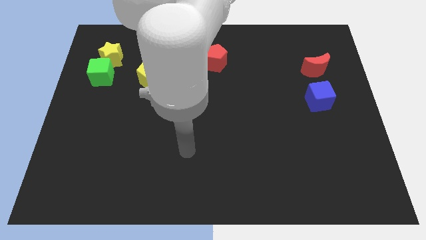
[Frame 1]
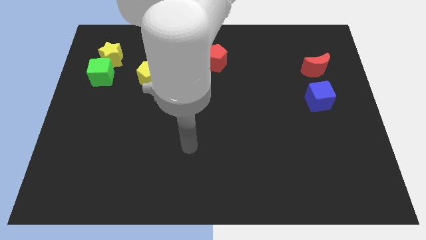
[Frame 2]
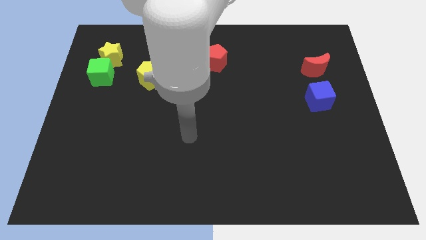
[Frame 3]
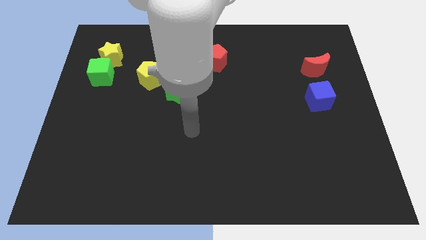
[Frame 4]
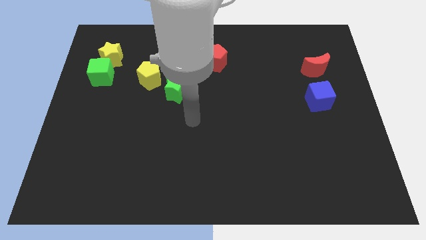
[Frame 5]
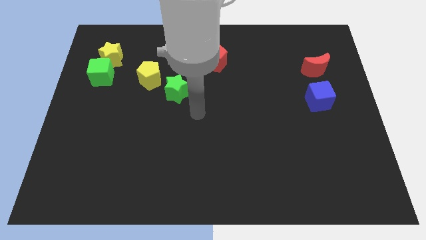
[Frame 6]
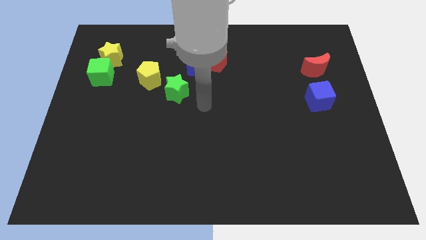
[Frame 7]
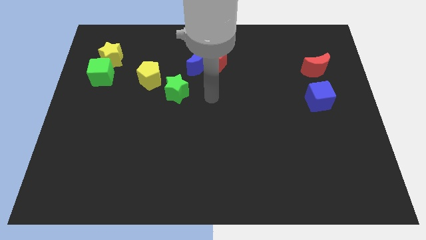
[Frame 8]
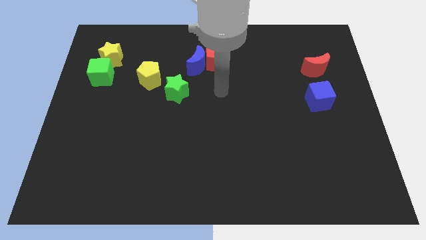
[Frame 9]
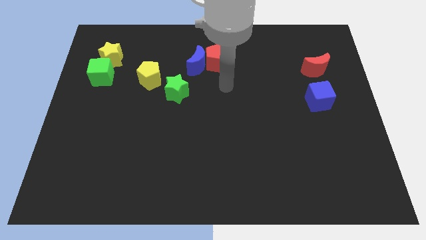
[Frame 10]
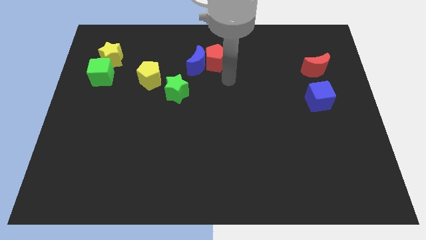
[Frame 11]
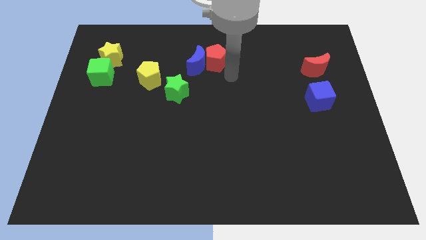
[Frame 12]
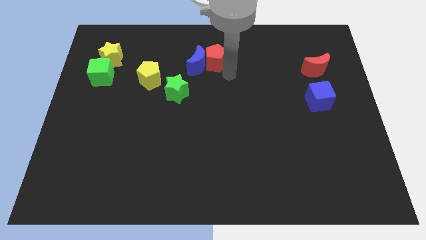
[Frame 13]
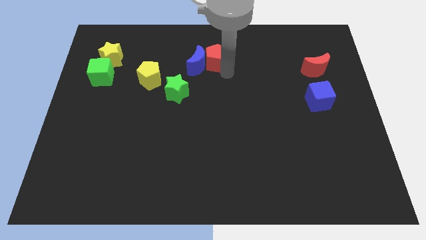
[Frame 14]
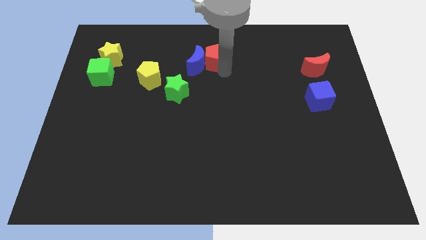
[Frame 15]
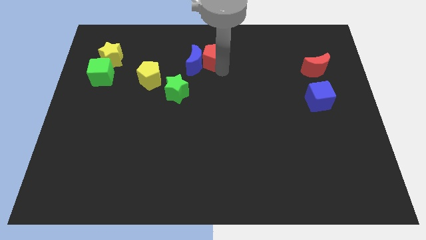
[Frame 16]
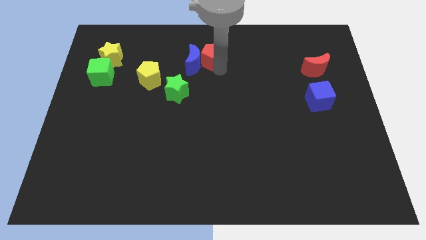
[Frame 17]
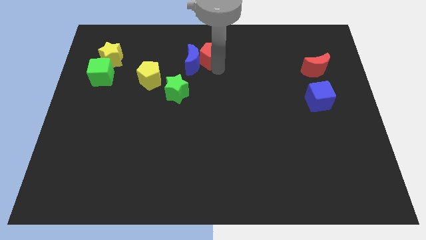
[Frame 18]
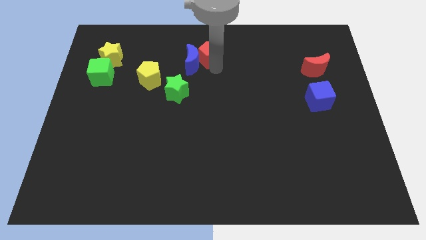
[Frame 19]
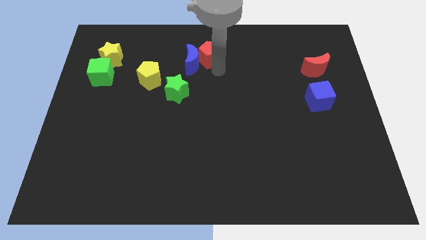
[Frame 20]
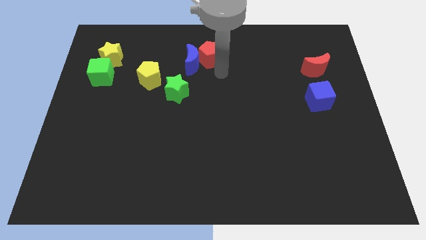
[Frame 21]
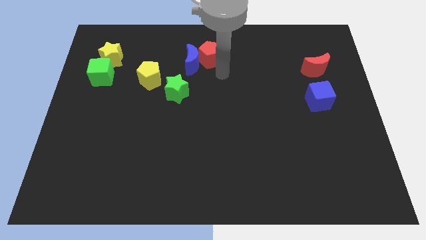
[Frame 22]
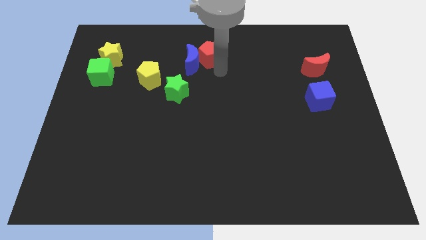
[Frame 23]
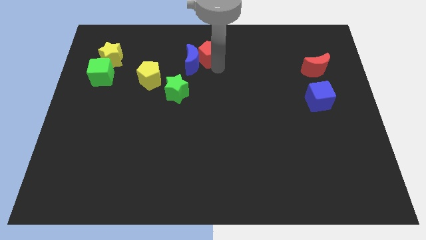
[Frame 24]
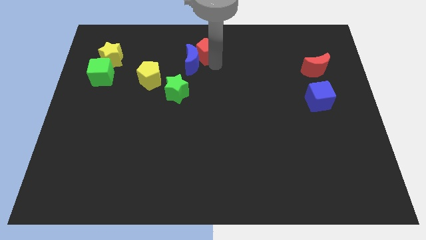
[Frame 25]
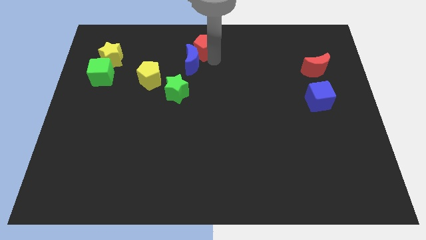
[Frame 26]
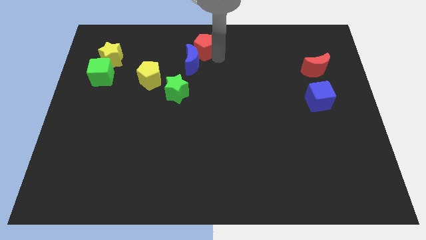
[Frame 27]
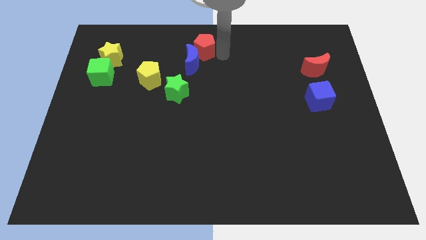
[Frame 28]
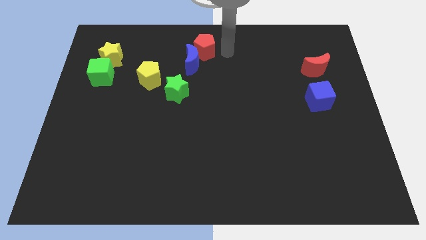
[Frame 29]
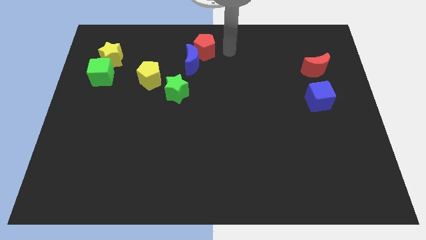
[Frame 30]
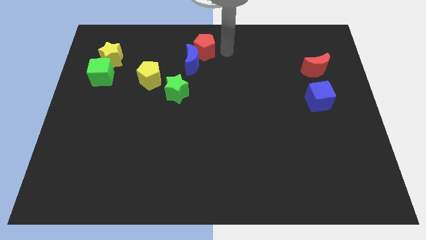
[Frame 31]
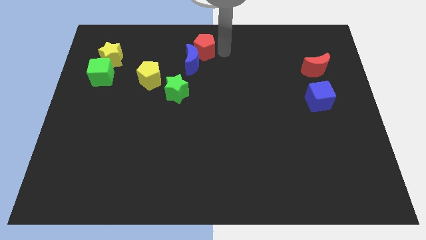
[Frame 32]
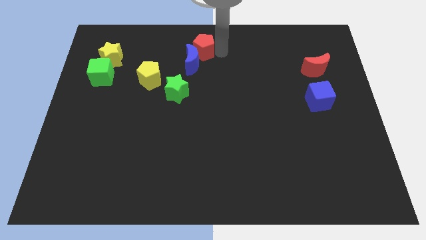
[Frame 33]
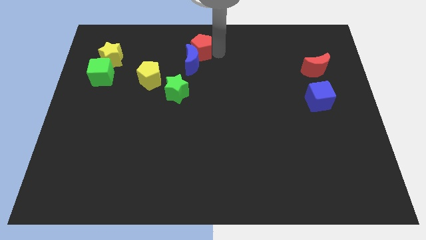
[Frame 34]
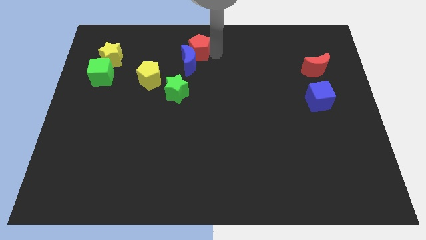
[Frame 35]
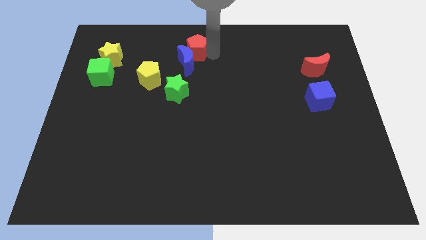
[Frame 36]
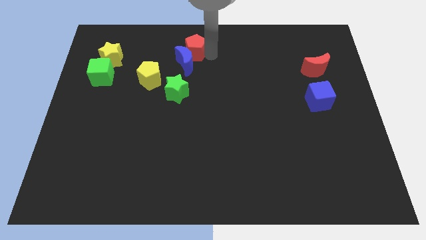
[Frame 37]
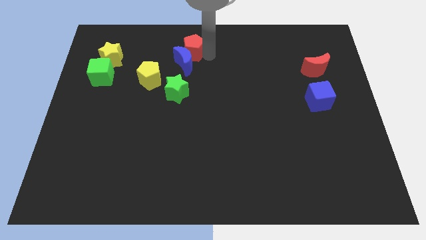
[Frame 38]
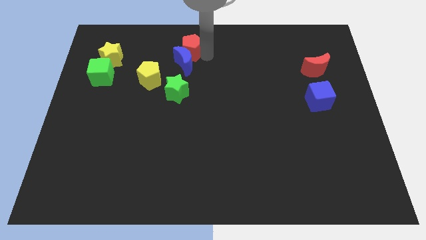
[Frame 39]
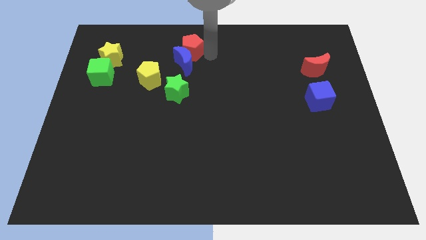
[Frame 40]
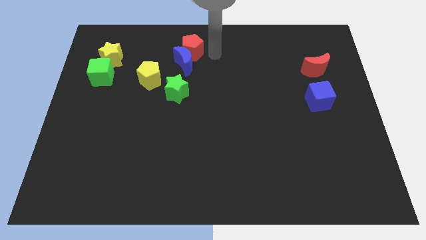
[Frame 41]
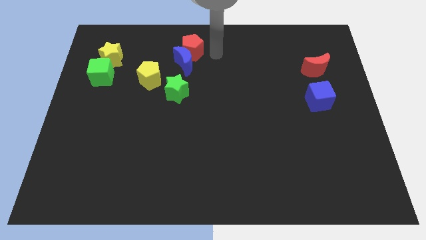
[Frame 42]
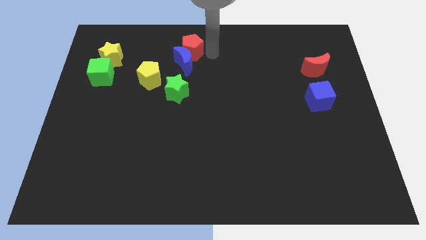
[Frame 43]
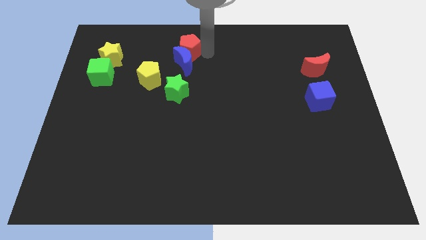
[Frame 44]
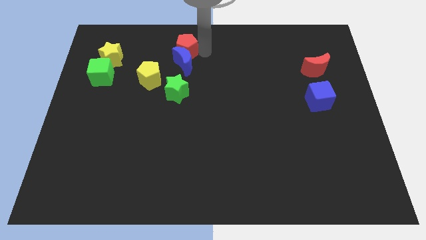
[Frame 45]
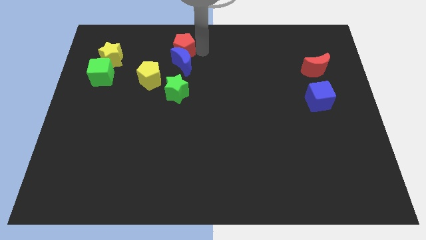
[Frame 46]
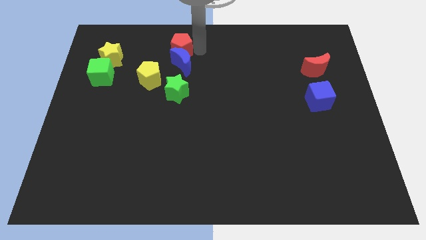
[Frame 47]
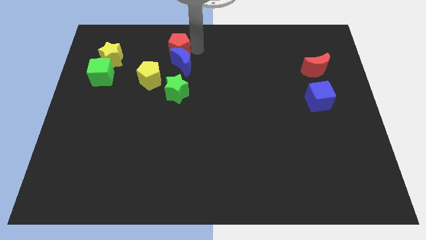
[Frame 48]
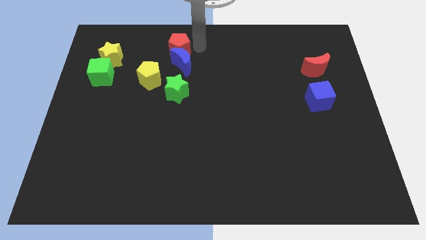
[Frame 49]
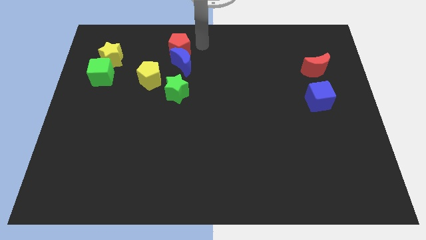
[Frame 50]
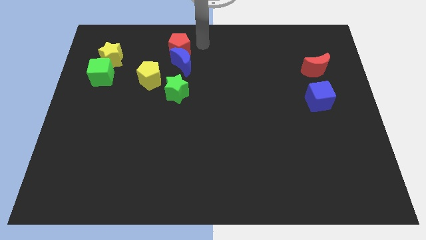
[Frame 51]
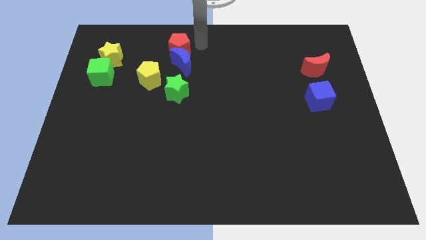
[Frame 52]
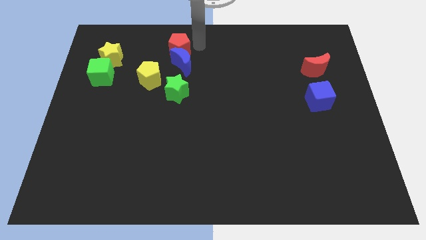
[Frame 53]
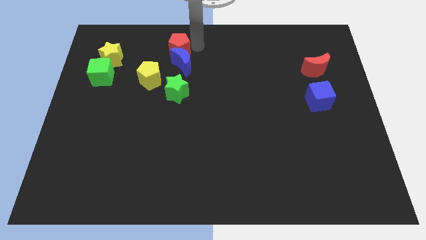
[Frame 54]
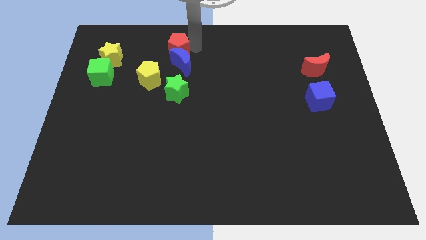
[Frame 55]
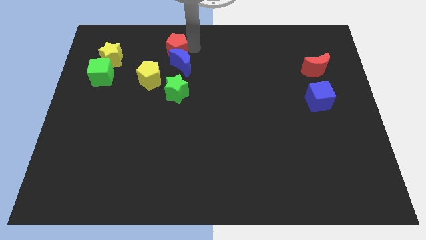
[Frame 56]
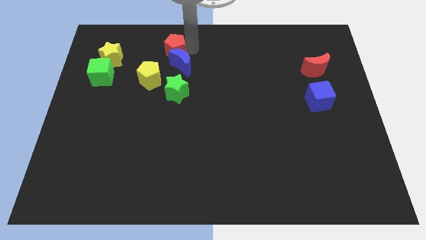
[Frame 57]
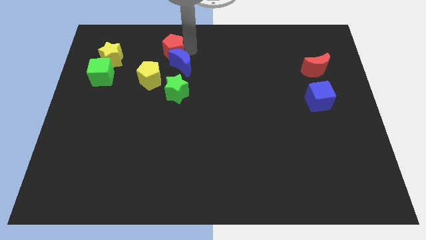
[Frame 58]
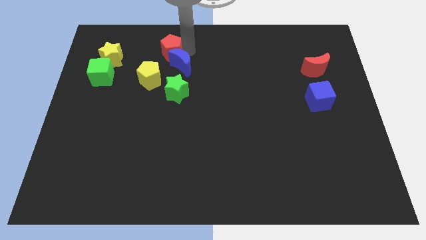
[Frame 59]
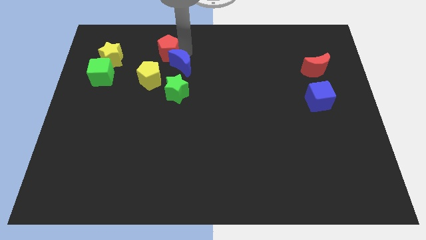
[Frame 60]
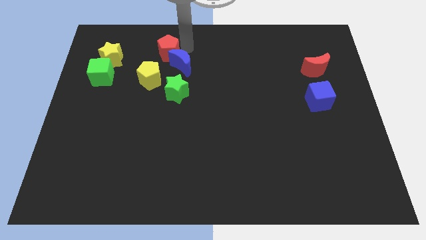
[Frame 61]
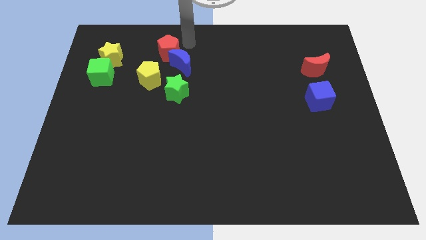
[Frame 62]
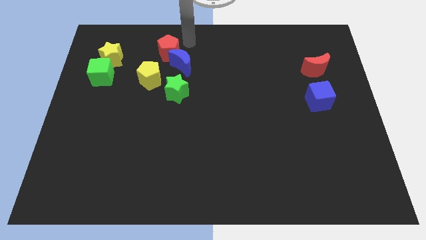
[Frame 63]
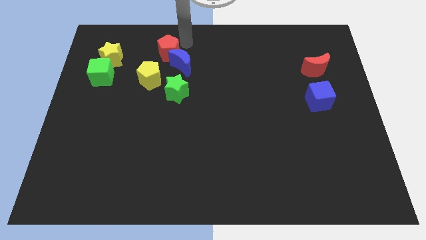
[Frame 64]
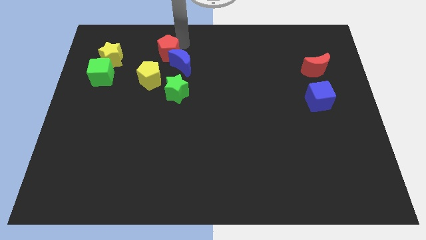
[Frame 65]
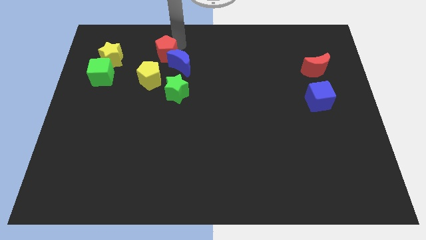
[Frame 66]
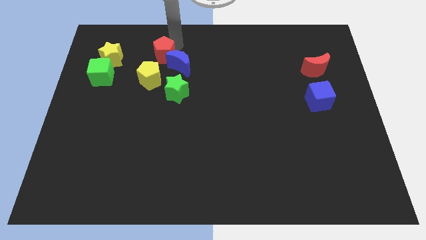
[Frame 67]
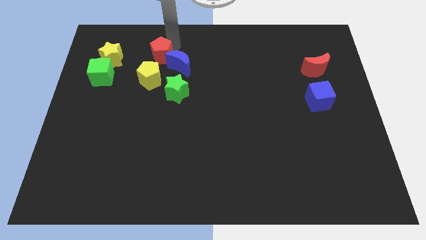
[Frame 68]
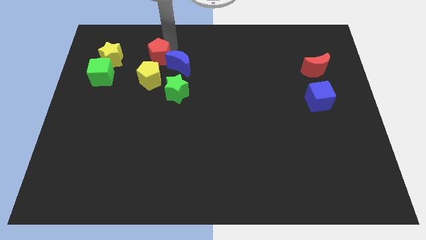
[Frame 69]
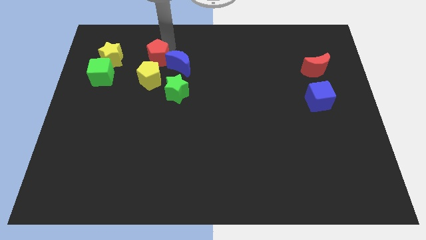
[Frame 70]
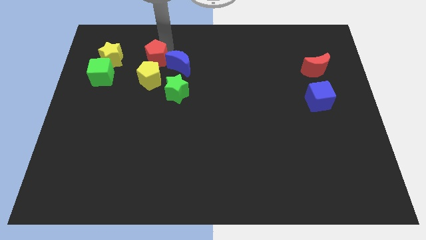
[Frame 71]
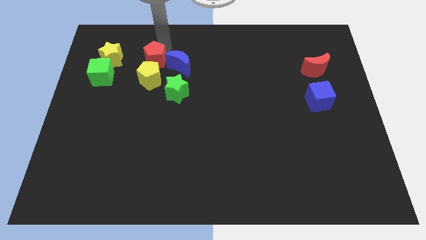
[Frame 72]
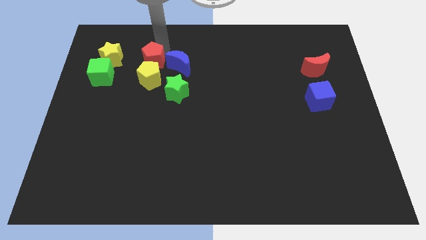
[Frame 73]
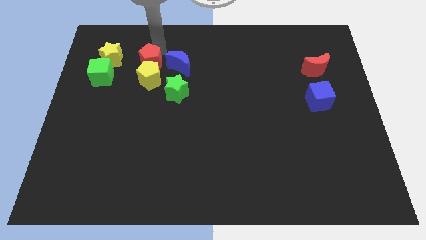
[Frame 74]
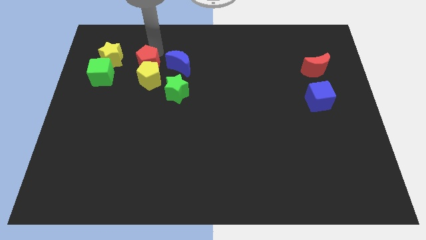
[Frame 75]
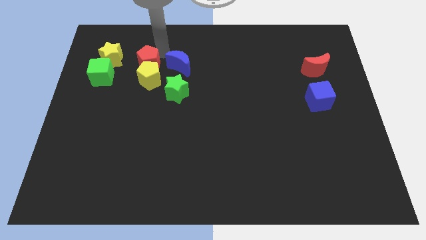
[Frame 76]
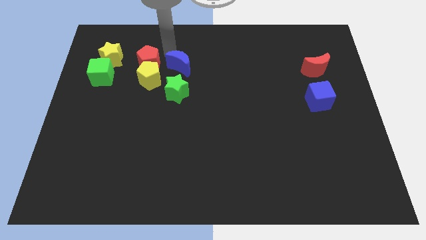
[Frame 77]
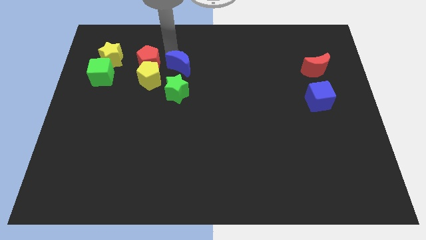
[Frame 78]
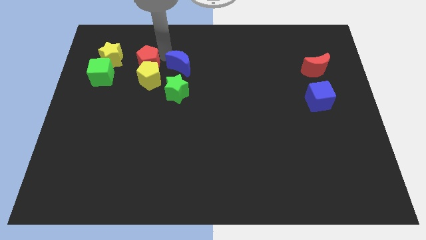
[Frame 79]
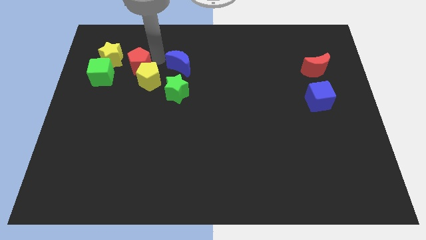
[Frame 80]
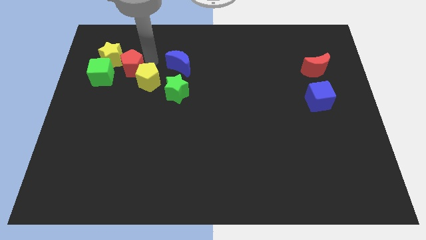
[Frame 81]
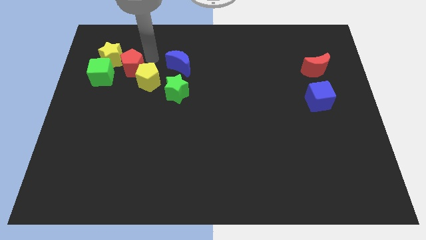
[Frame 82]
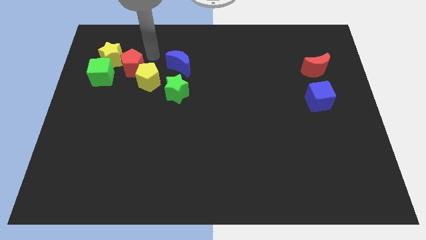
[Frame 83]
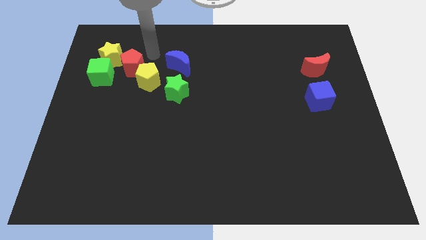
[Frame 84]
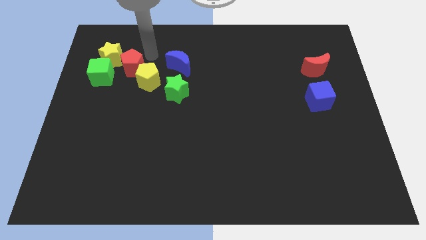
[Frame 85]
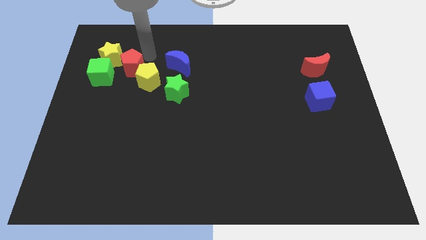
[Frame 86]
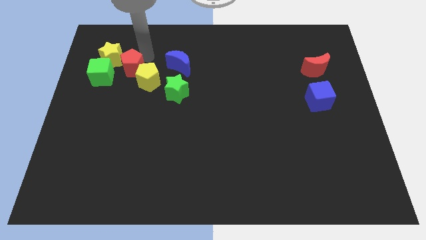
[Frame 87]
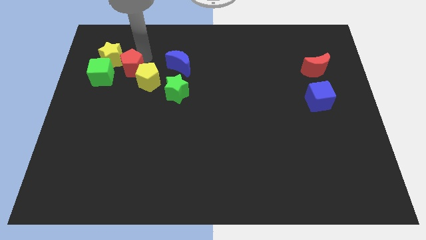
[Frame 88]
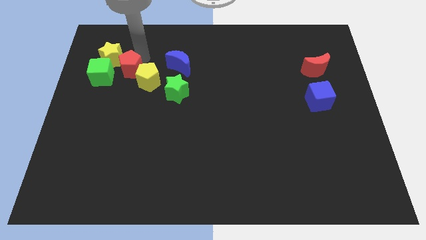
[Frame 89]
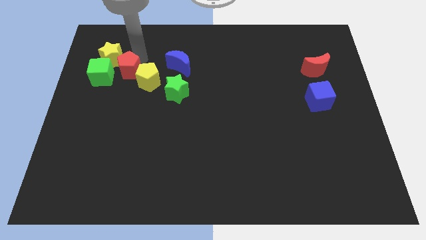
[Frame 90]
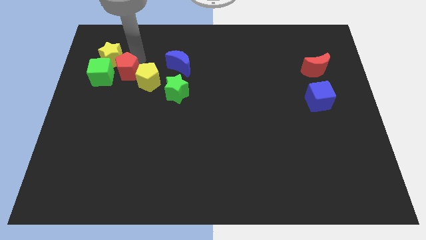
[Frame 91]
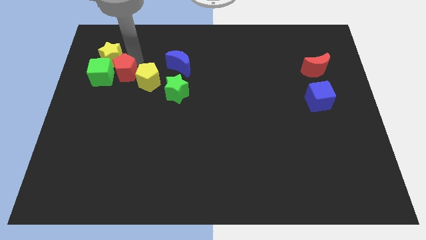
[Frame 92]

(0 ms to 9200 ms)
slide the red pentagon to the green cube
